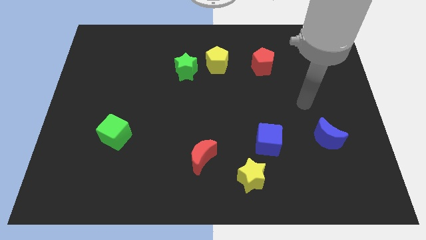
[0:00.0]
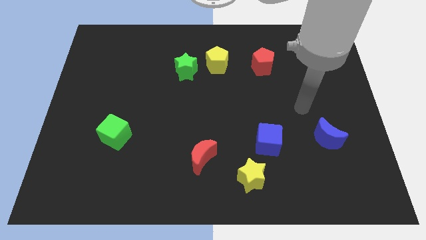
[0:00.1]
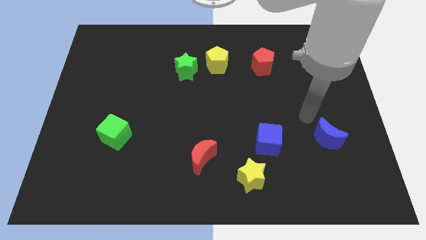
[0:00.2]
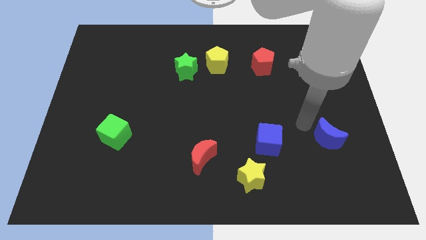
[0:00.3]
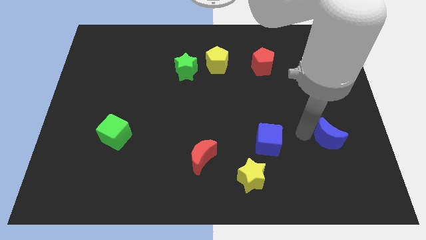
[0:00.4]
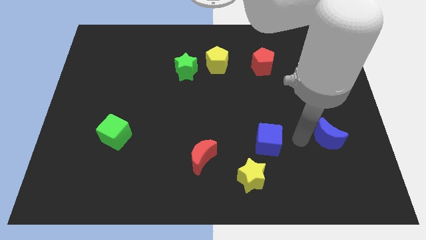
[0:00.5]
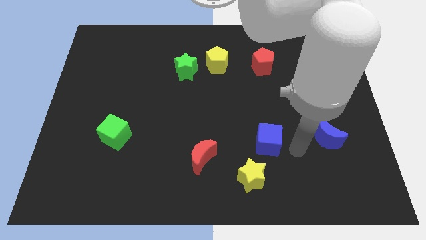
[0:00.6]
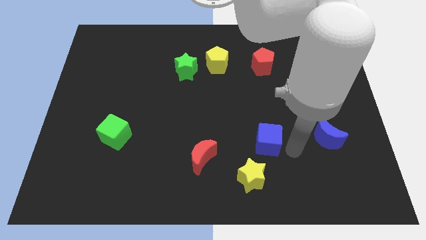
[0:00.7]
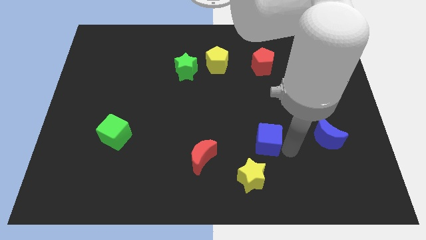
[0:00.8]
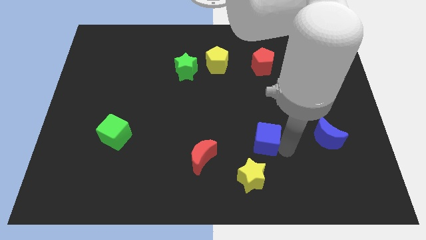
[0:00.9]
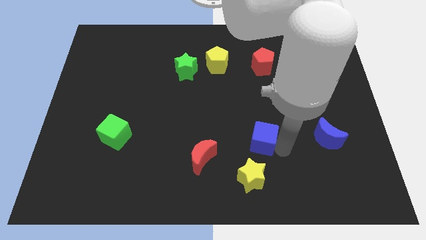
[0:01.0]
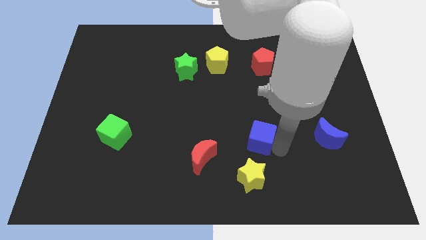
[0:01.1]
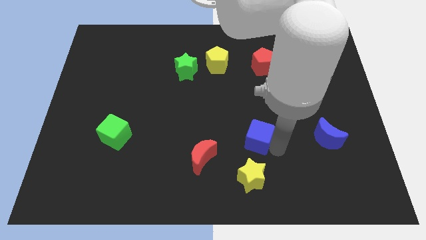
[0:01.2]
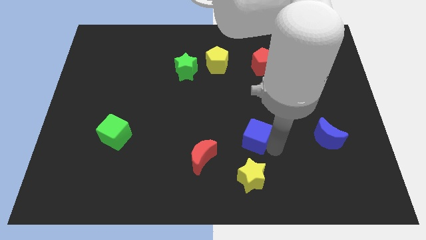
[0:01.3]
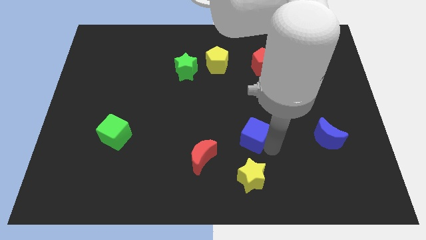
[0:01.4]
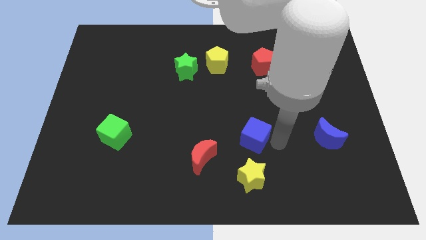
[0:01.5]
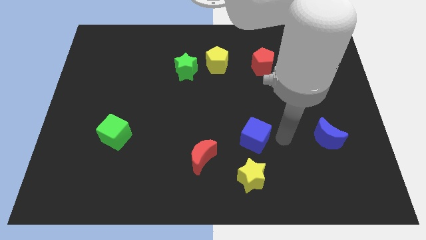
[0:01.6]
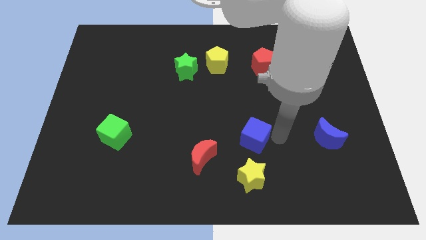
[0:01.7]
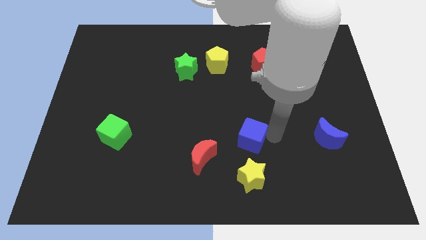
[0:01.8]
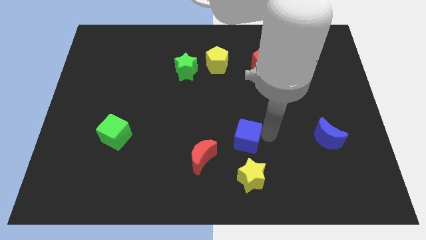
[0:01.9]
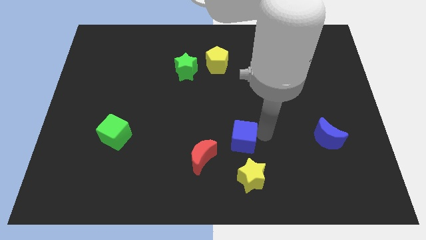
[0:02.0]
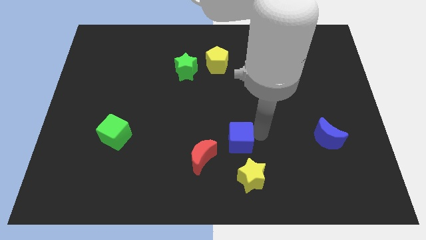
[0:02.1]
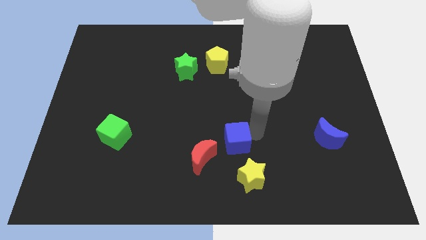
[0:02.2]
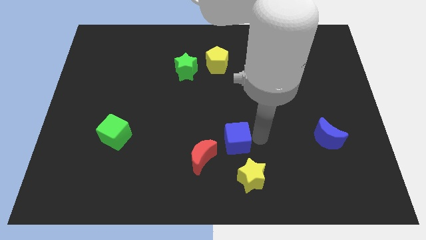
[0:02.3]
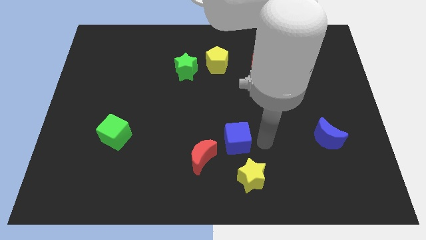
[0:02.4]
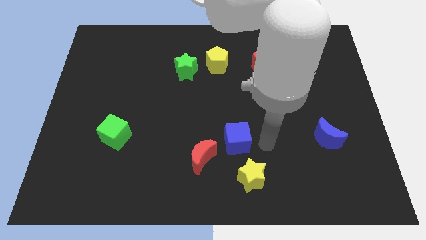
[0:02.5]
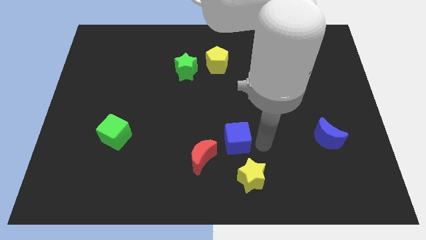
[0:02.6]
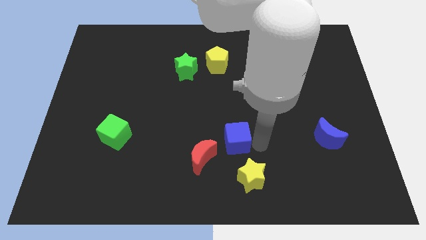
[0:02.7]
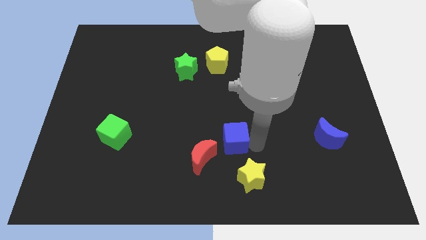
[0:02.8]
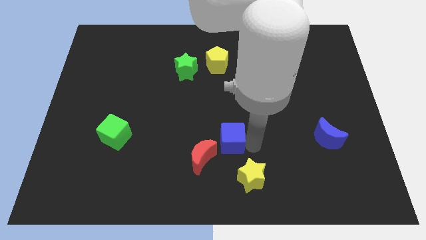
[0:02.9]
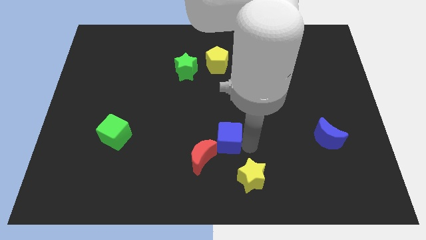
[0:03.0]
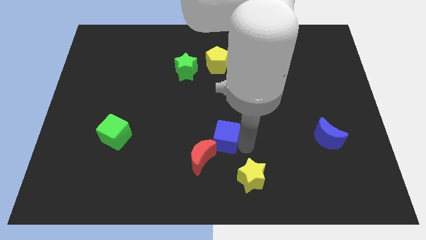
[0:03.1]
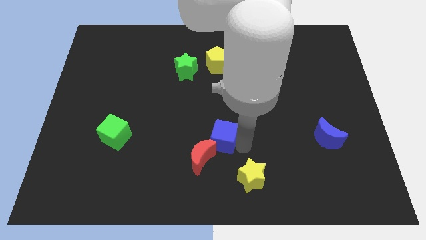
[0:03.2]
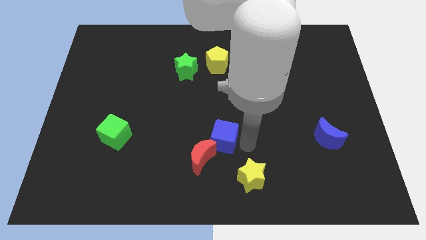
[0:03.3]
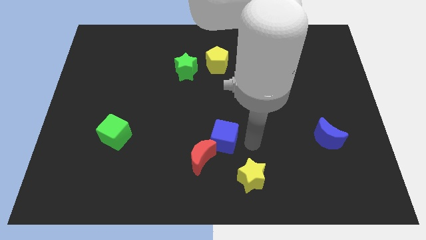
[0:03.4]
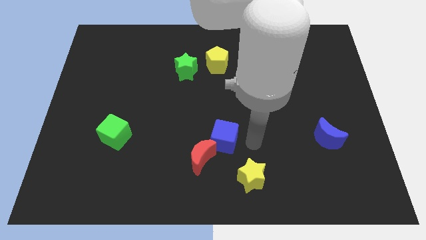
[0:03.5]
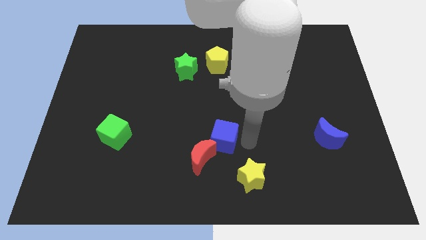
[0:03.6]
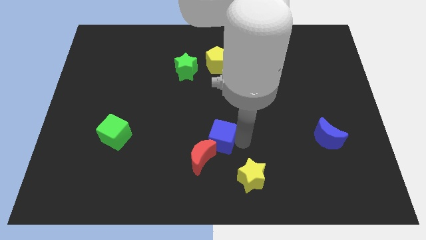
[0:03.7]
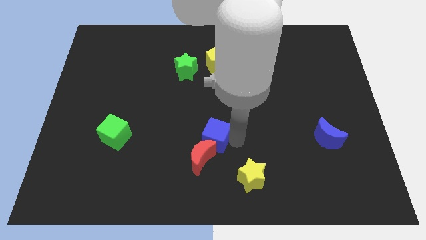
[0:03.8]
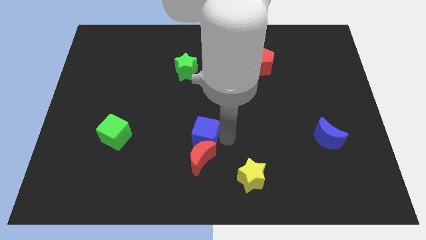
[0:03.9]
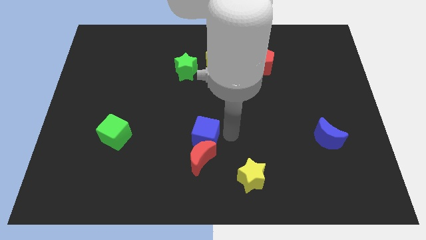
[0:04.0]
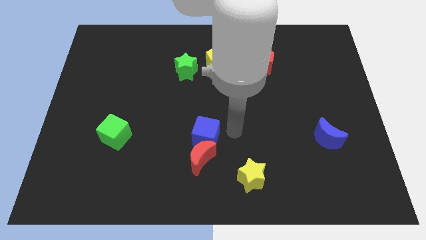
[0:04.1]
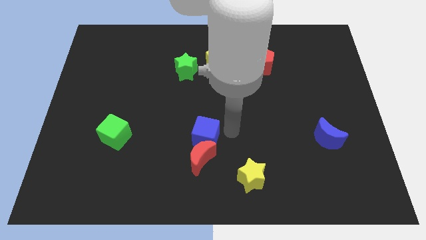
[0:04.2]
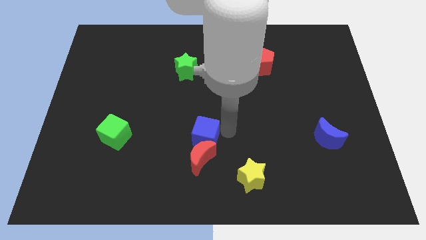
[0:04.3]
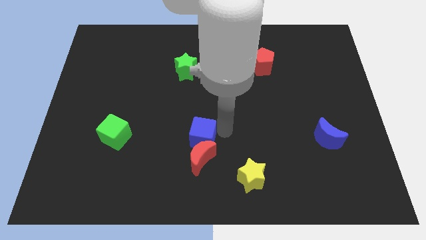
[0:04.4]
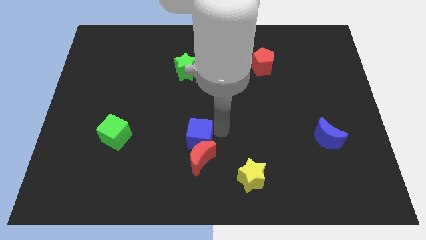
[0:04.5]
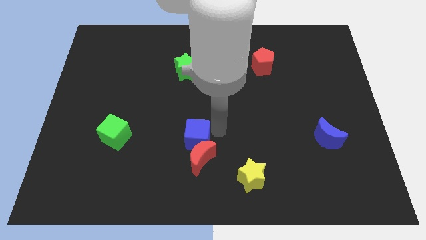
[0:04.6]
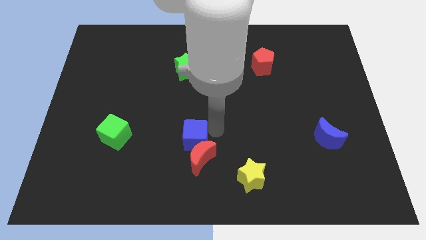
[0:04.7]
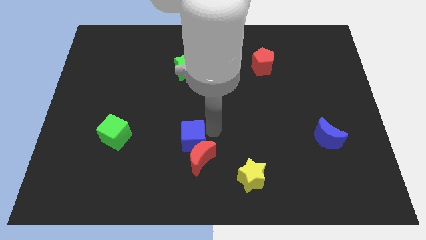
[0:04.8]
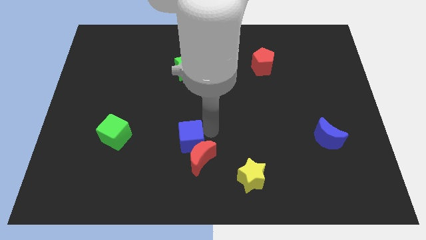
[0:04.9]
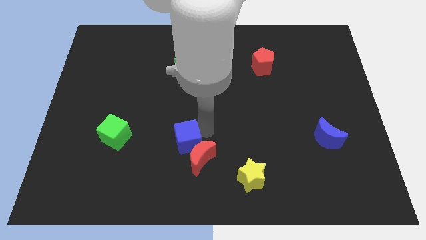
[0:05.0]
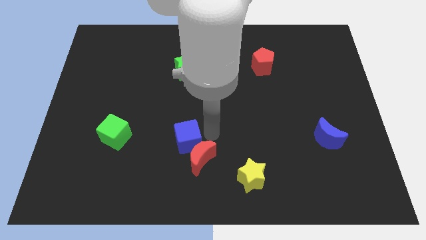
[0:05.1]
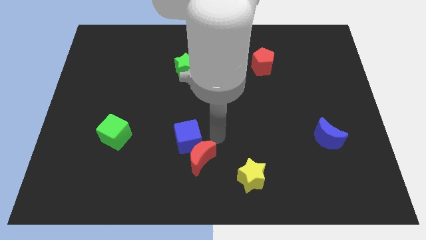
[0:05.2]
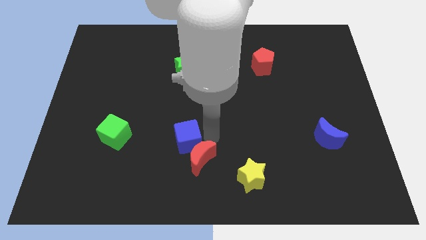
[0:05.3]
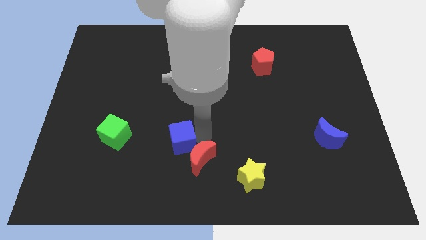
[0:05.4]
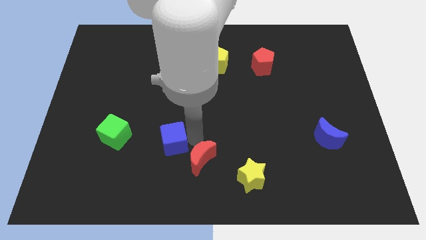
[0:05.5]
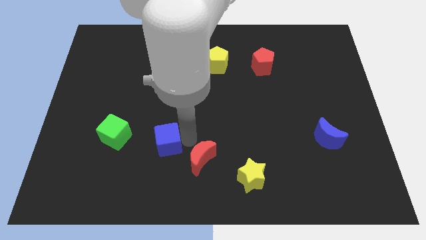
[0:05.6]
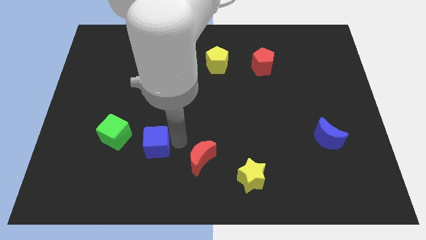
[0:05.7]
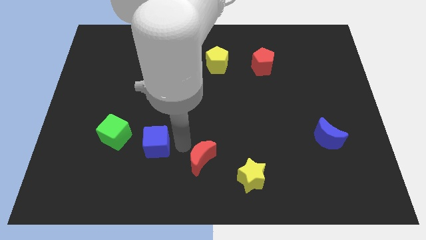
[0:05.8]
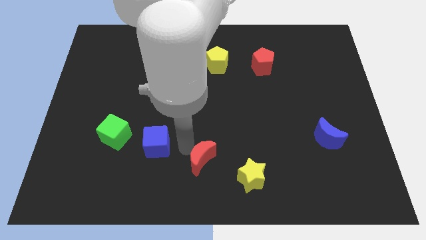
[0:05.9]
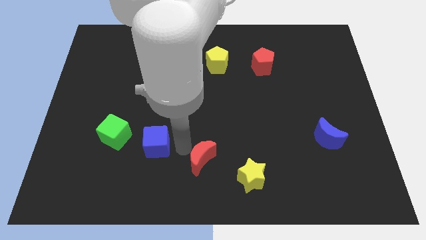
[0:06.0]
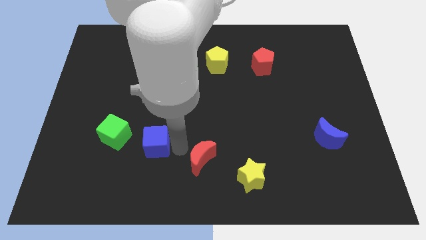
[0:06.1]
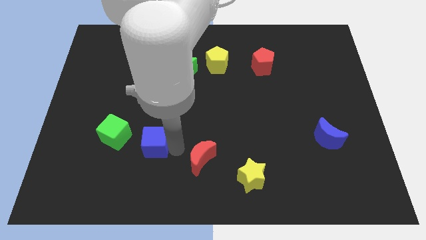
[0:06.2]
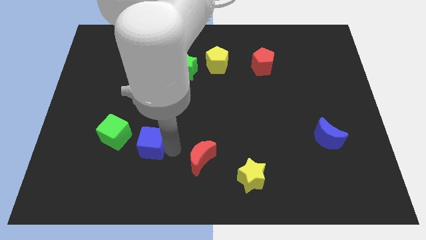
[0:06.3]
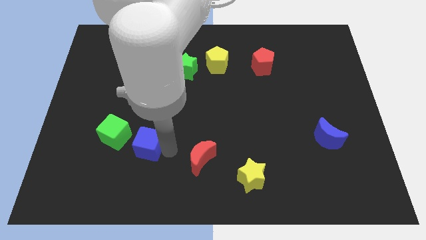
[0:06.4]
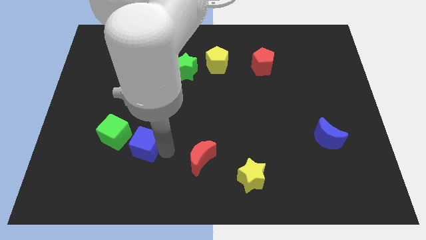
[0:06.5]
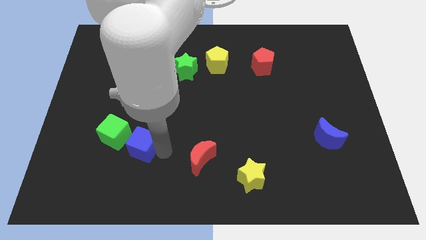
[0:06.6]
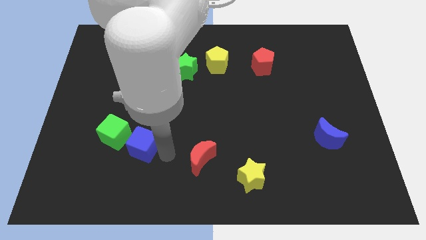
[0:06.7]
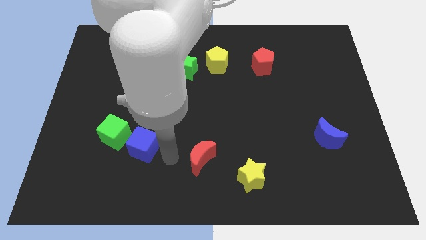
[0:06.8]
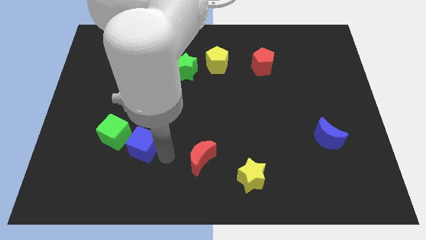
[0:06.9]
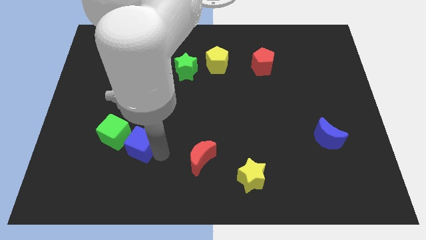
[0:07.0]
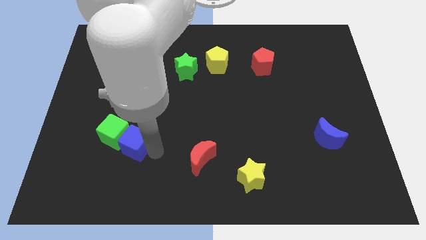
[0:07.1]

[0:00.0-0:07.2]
move the blue cube next to the green cube
